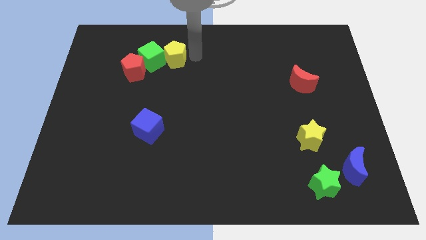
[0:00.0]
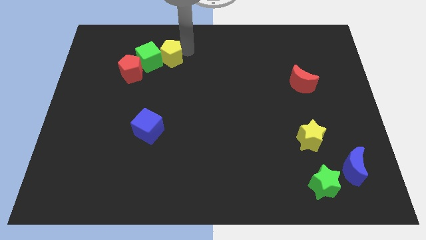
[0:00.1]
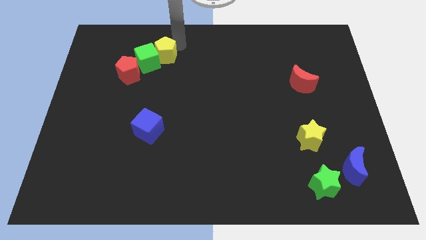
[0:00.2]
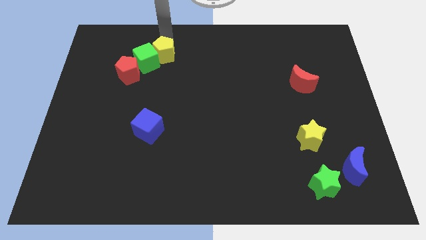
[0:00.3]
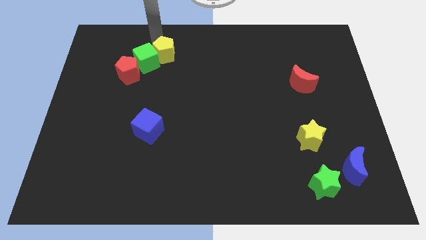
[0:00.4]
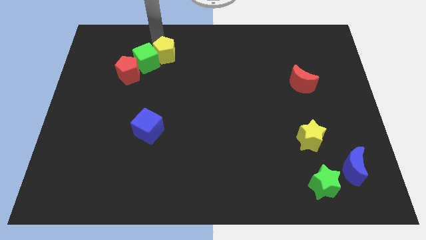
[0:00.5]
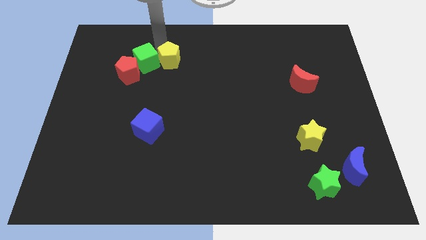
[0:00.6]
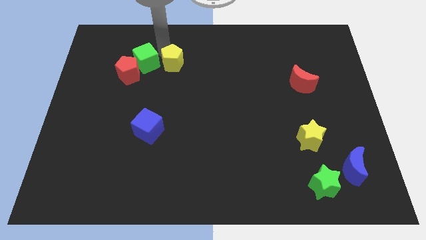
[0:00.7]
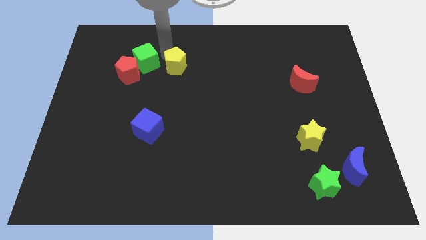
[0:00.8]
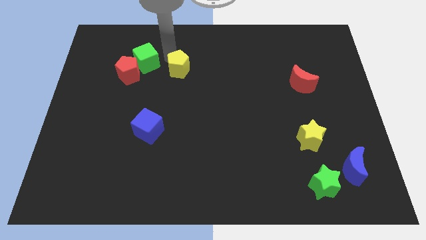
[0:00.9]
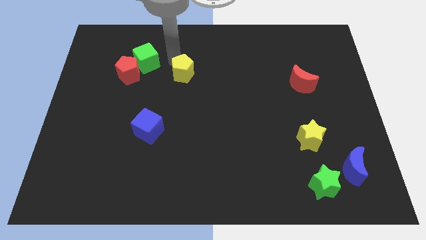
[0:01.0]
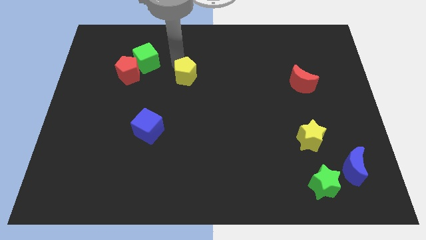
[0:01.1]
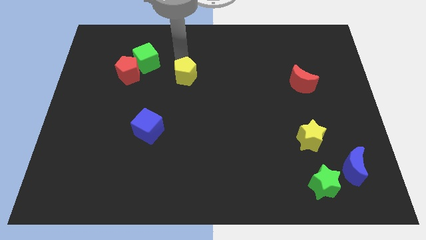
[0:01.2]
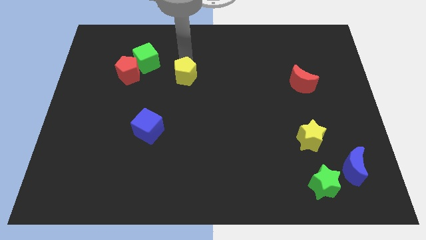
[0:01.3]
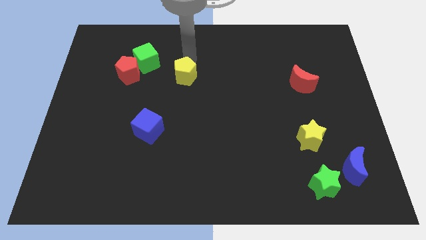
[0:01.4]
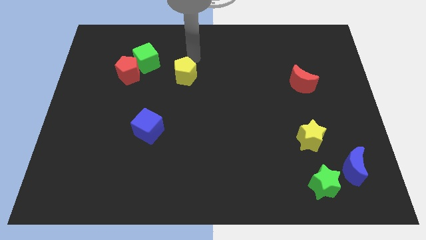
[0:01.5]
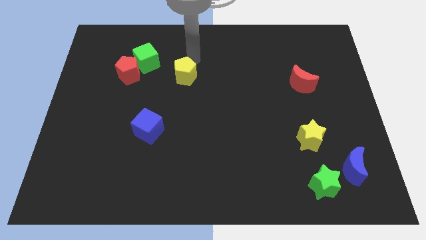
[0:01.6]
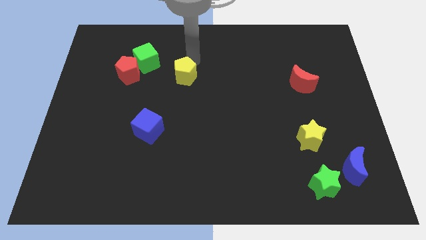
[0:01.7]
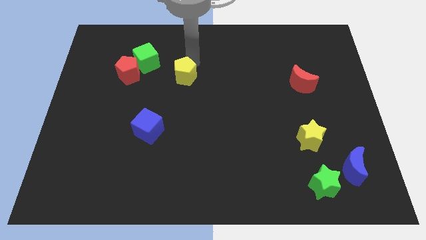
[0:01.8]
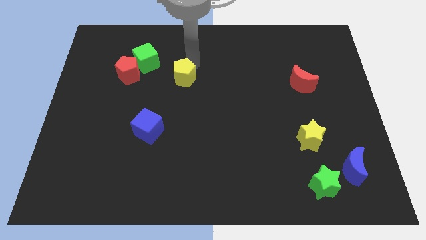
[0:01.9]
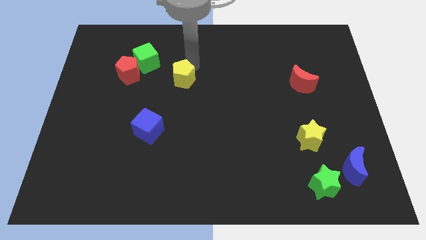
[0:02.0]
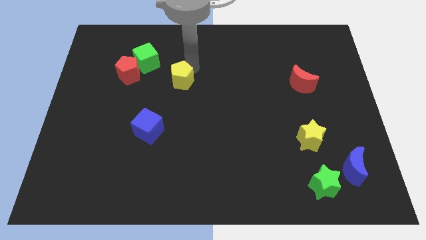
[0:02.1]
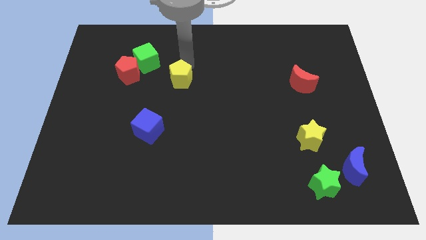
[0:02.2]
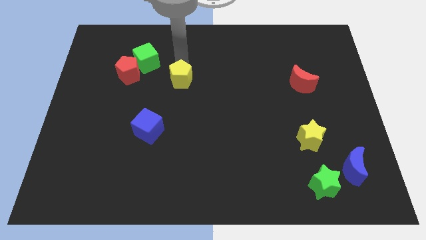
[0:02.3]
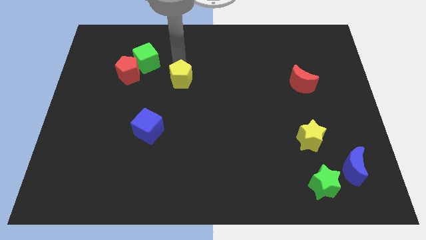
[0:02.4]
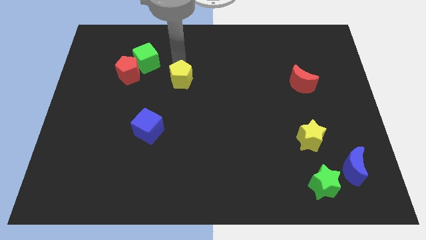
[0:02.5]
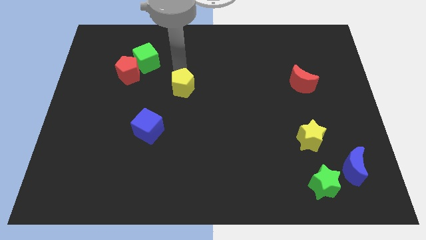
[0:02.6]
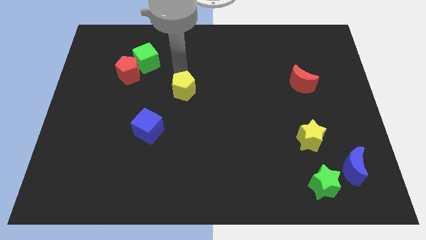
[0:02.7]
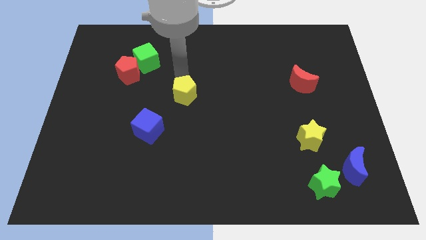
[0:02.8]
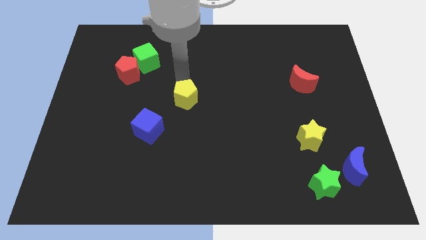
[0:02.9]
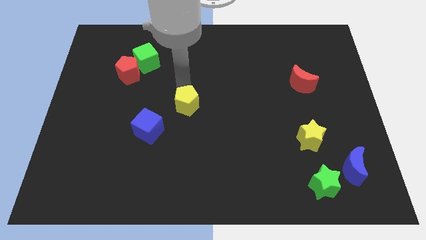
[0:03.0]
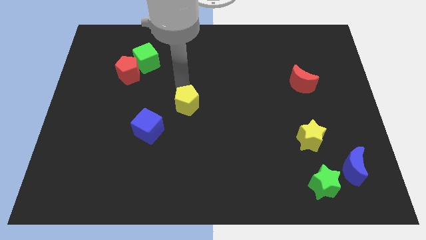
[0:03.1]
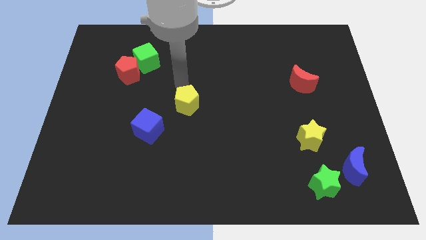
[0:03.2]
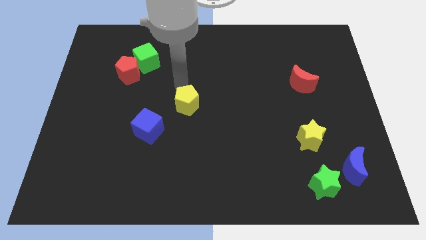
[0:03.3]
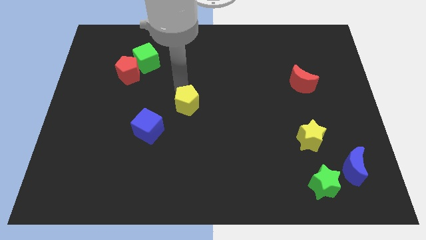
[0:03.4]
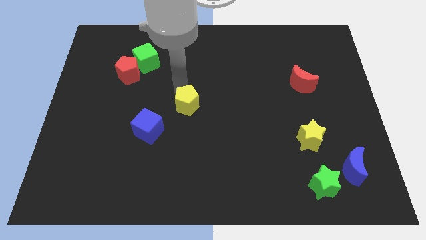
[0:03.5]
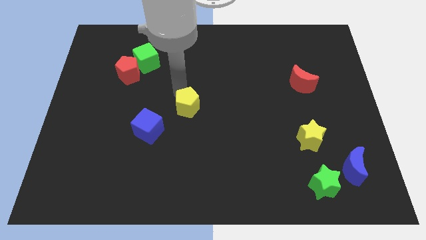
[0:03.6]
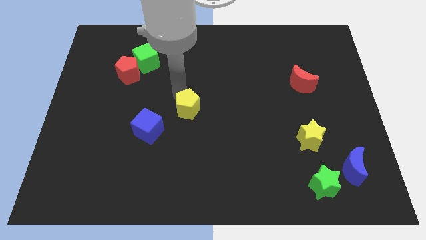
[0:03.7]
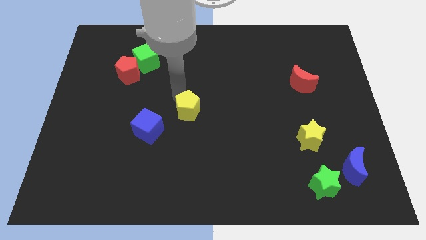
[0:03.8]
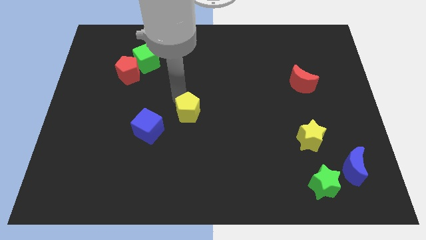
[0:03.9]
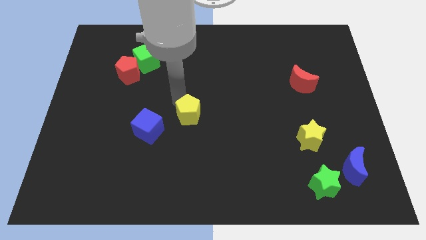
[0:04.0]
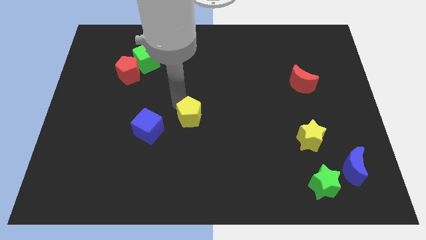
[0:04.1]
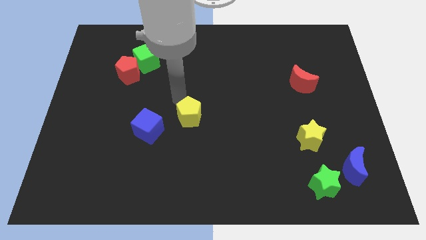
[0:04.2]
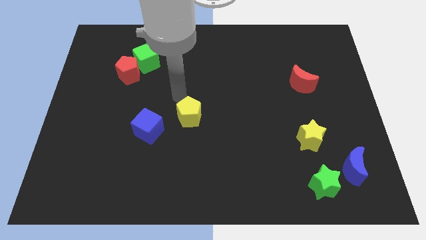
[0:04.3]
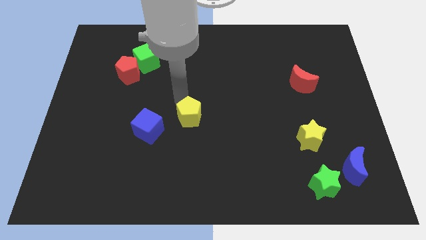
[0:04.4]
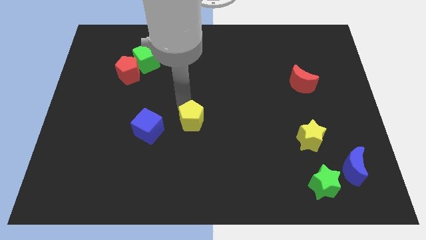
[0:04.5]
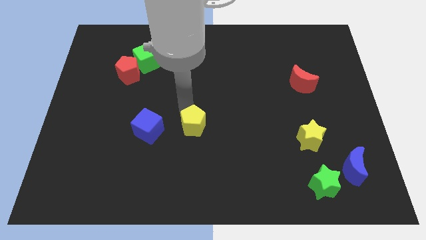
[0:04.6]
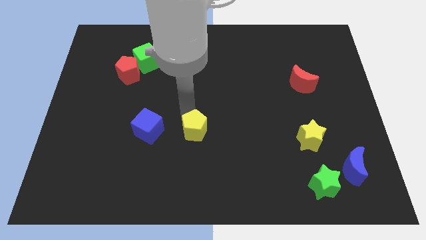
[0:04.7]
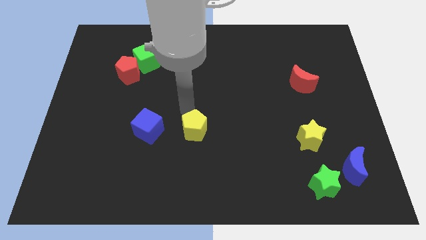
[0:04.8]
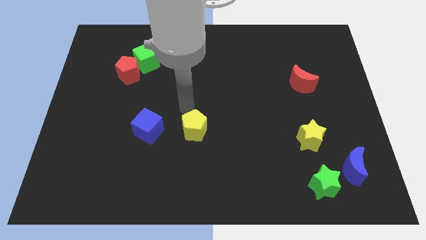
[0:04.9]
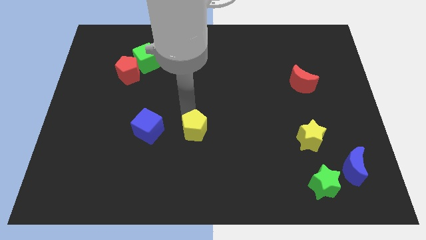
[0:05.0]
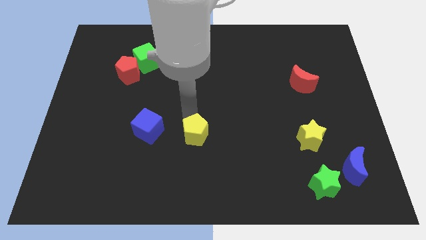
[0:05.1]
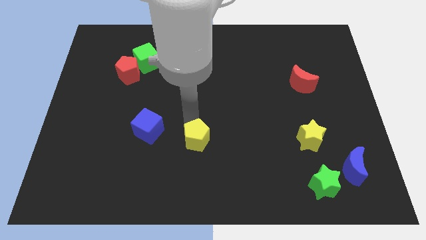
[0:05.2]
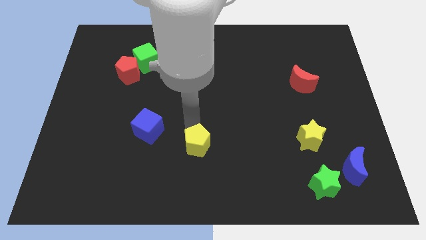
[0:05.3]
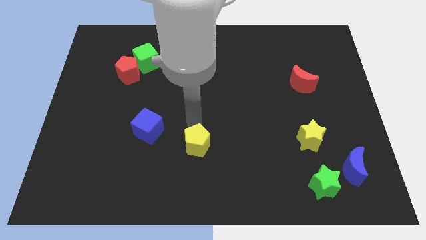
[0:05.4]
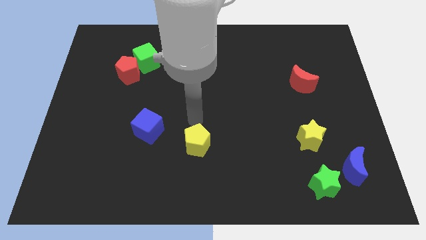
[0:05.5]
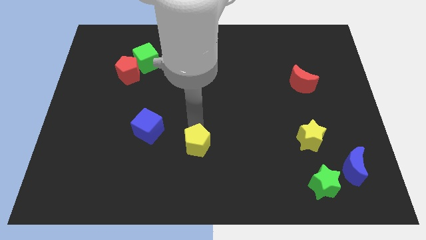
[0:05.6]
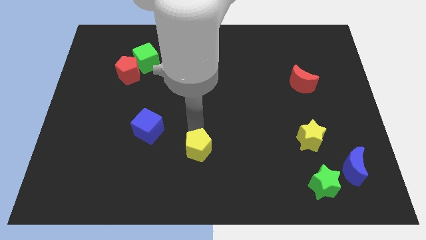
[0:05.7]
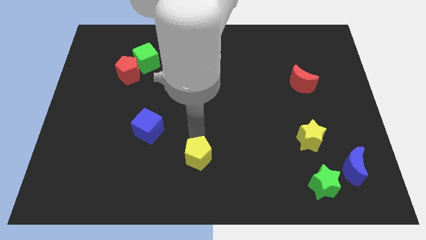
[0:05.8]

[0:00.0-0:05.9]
put the yellow pentagon to the bottom
